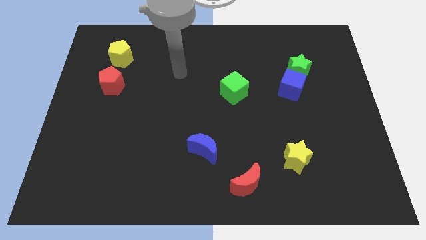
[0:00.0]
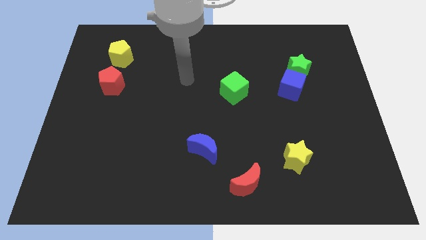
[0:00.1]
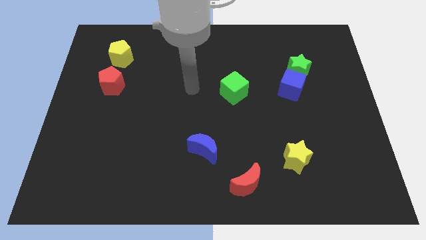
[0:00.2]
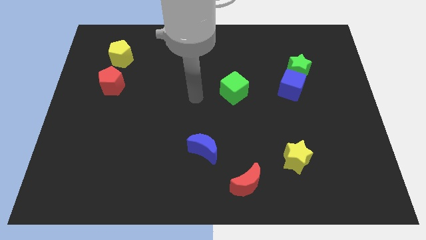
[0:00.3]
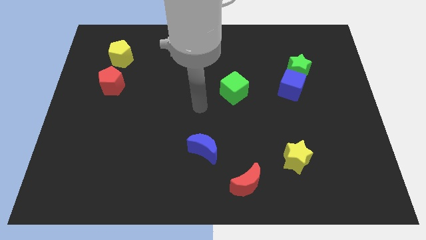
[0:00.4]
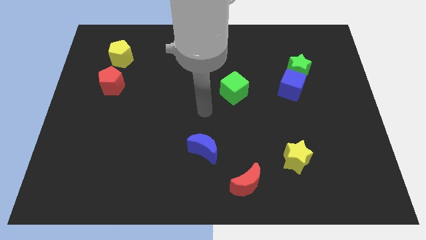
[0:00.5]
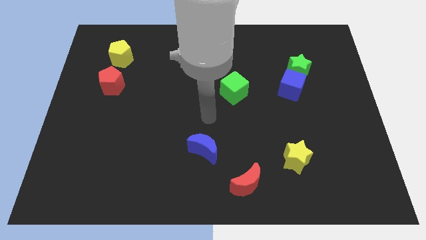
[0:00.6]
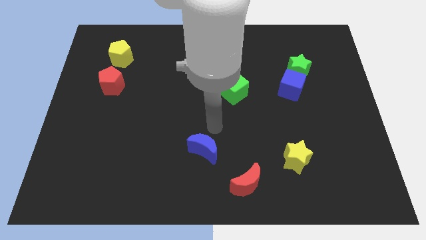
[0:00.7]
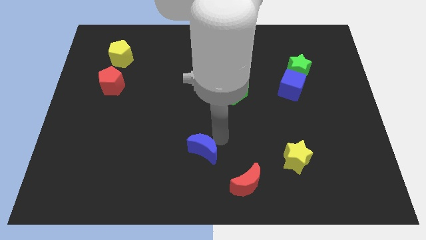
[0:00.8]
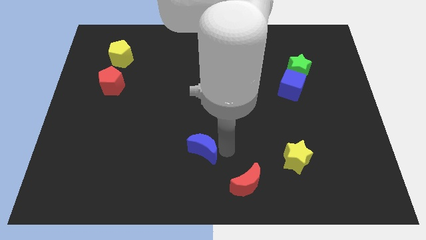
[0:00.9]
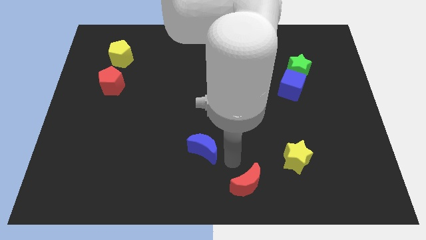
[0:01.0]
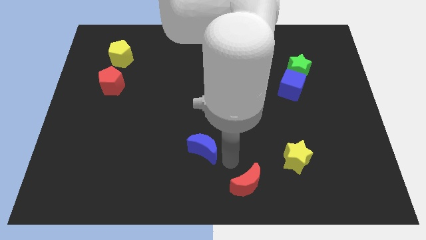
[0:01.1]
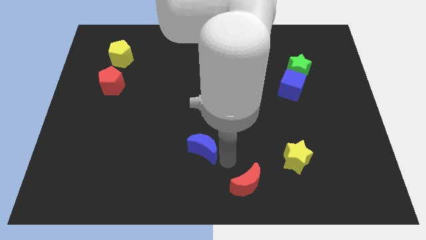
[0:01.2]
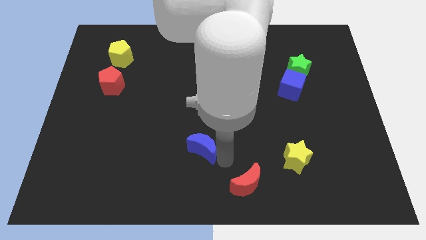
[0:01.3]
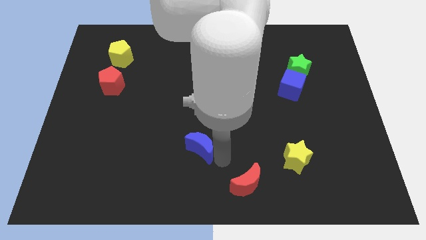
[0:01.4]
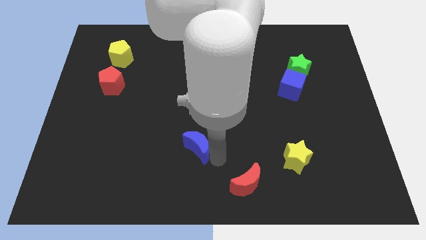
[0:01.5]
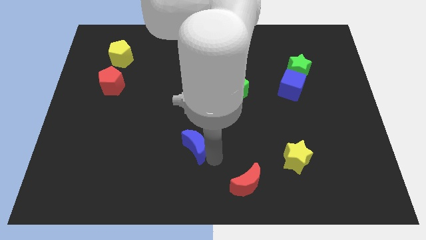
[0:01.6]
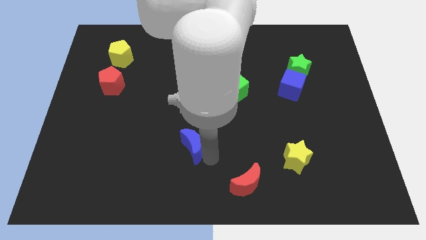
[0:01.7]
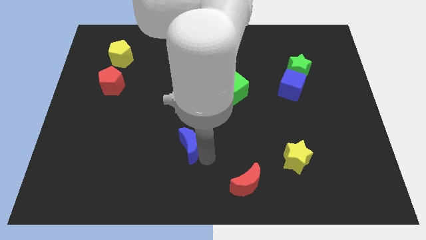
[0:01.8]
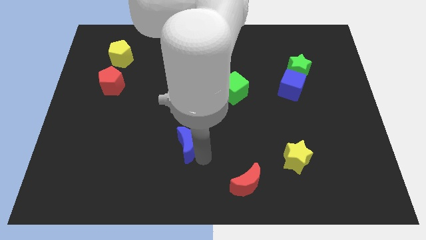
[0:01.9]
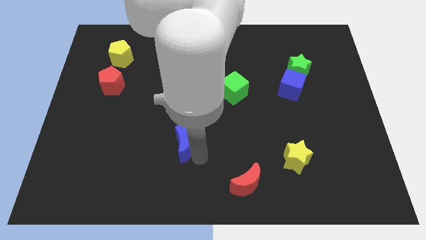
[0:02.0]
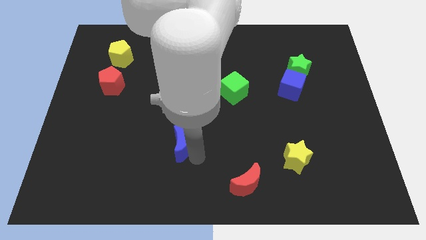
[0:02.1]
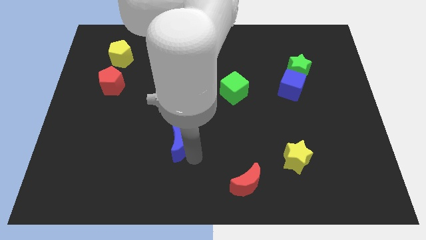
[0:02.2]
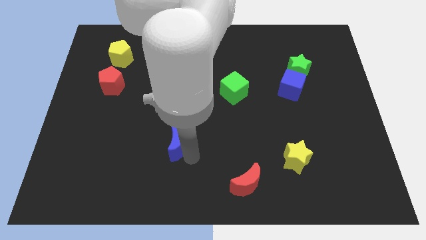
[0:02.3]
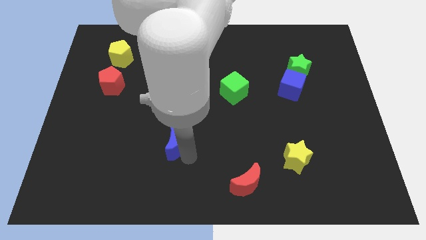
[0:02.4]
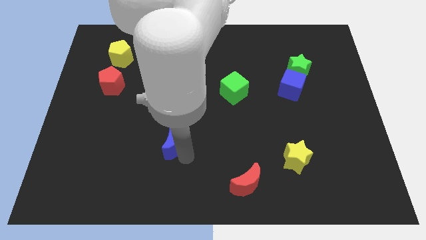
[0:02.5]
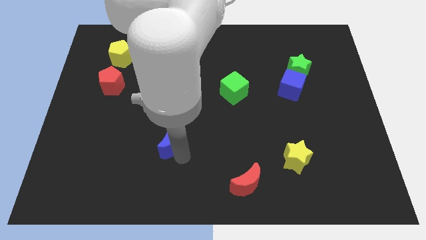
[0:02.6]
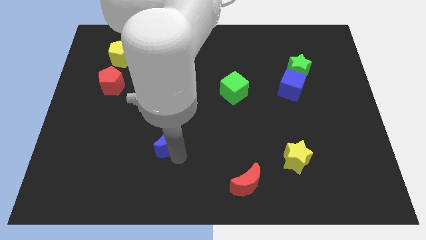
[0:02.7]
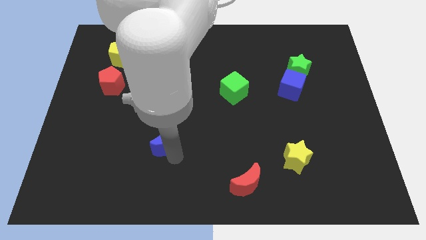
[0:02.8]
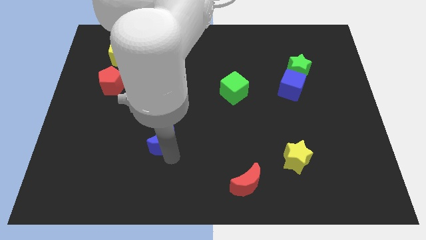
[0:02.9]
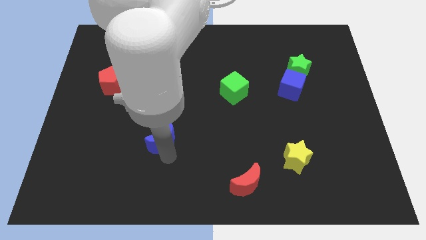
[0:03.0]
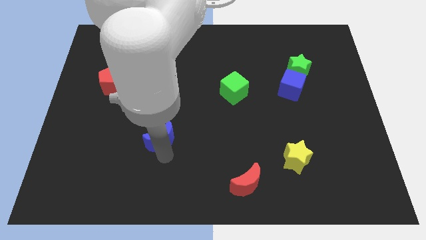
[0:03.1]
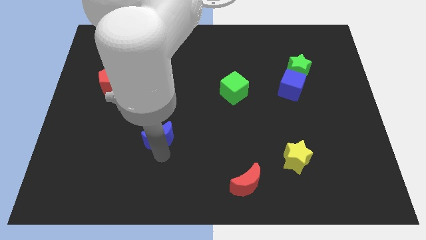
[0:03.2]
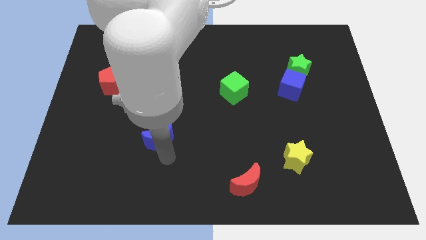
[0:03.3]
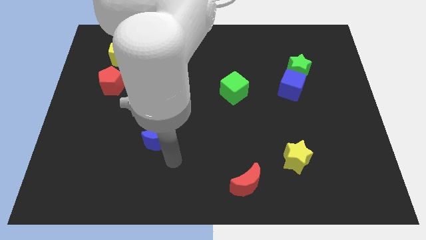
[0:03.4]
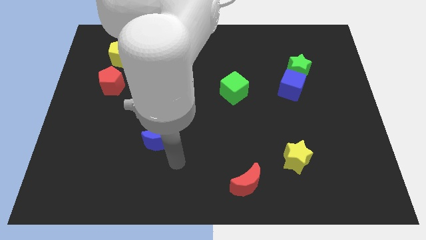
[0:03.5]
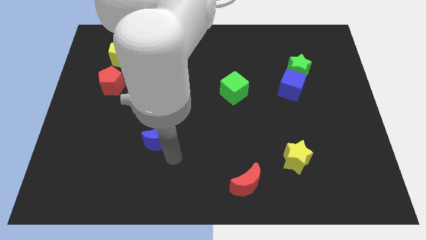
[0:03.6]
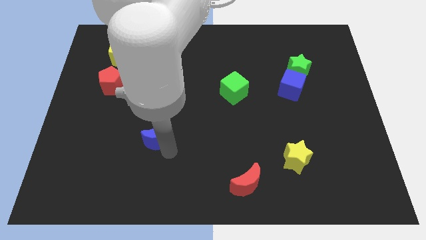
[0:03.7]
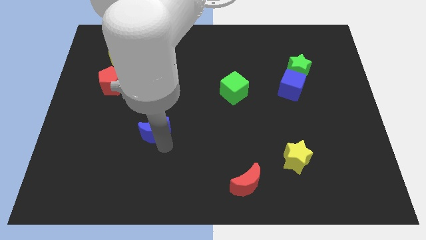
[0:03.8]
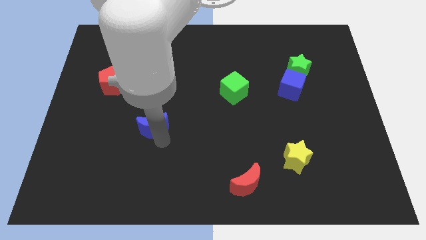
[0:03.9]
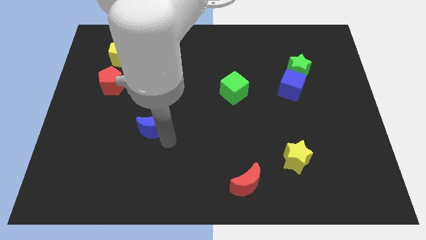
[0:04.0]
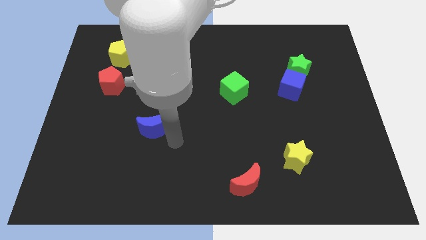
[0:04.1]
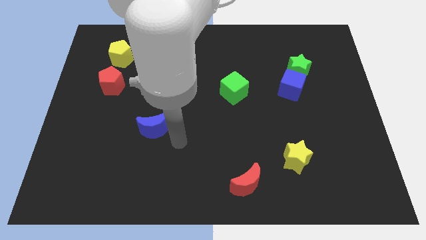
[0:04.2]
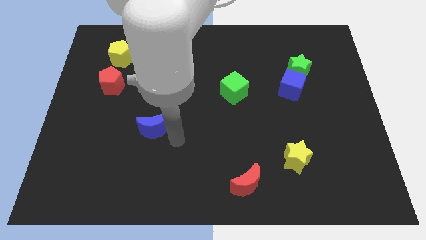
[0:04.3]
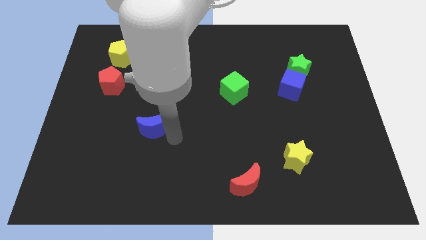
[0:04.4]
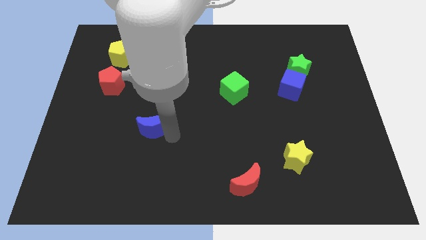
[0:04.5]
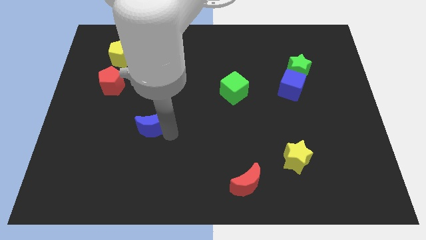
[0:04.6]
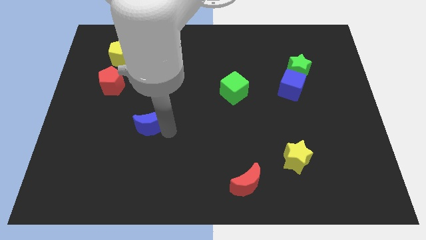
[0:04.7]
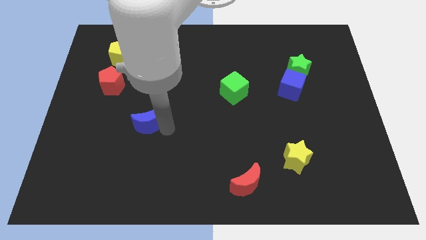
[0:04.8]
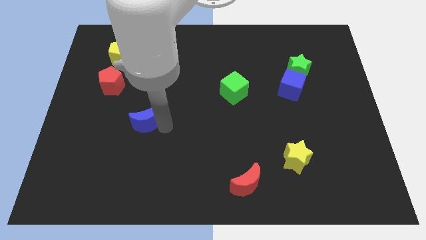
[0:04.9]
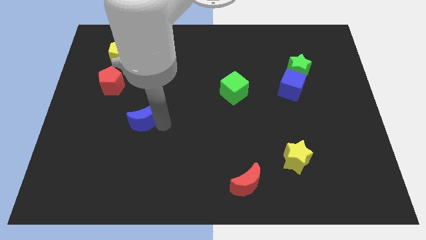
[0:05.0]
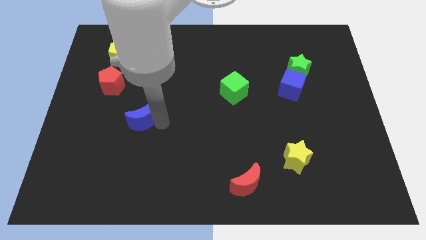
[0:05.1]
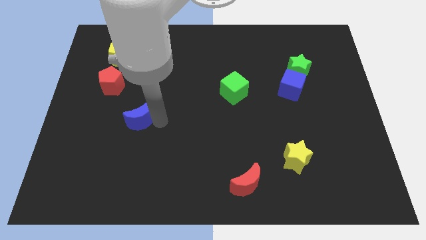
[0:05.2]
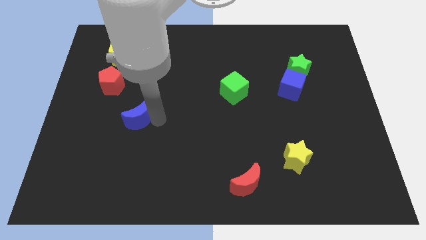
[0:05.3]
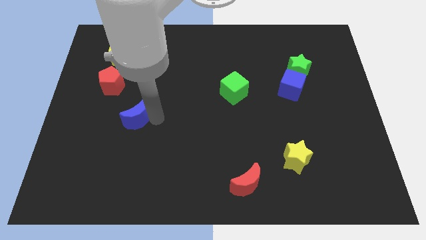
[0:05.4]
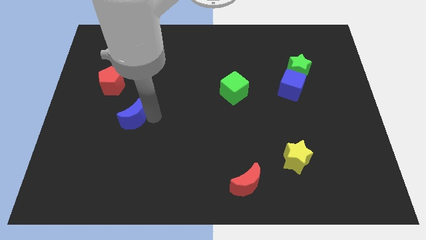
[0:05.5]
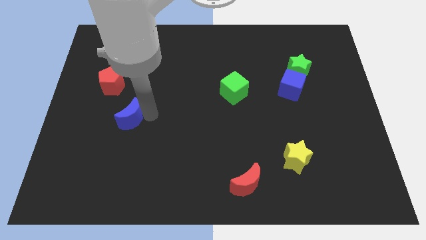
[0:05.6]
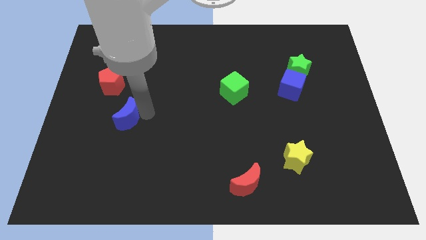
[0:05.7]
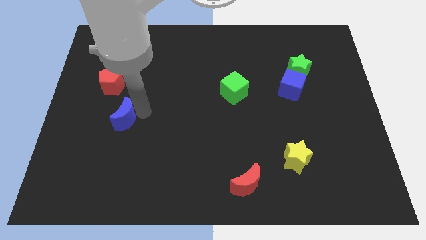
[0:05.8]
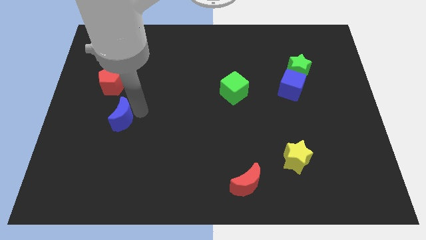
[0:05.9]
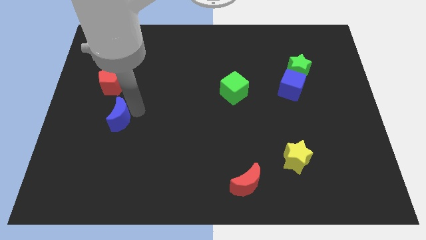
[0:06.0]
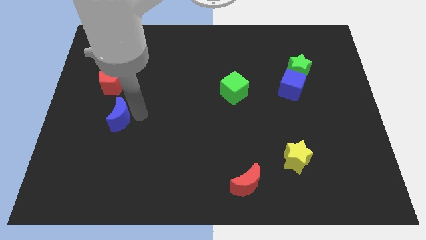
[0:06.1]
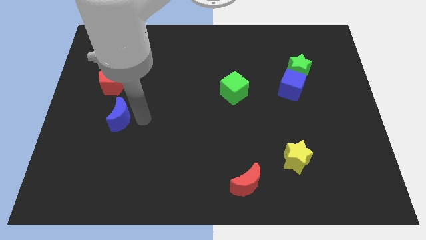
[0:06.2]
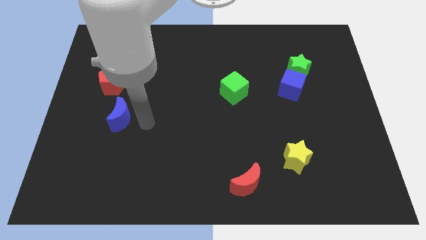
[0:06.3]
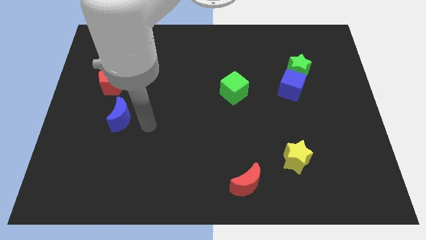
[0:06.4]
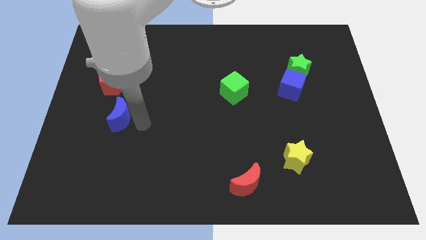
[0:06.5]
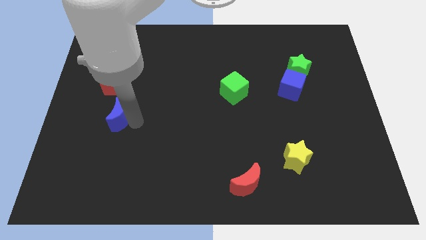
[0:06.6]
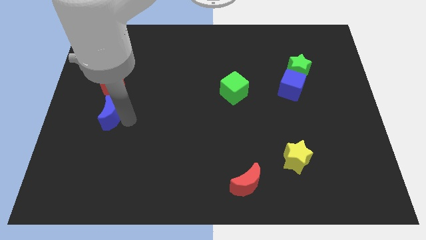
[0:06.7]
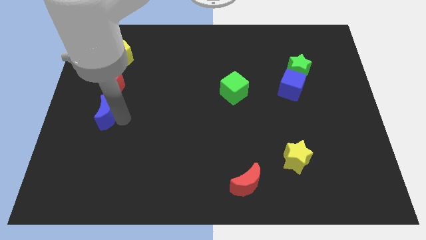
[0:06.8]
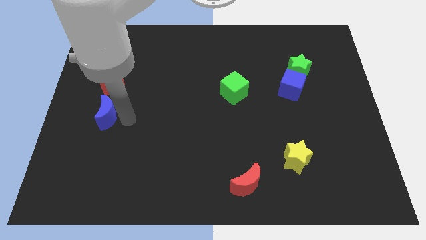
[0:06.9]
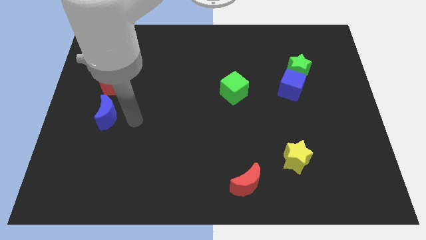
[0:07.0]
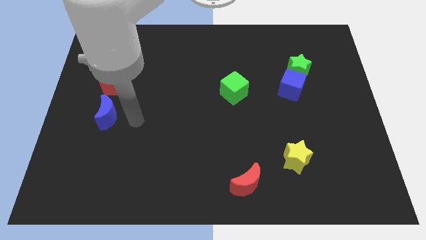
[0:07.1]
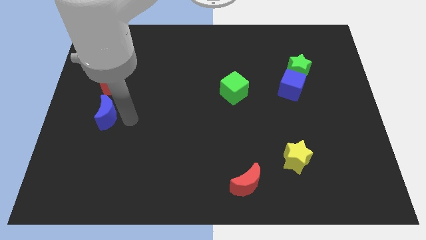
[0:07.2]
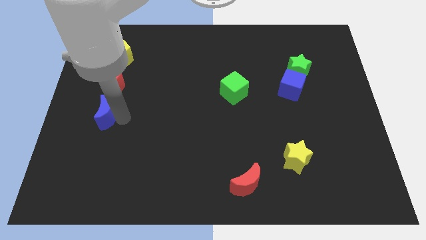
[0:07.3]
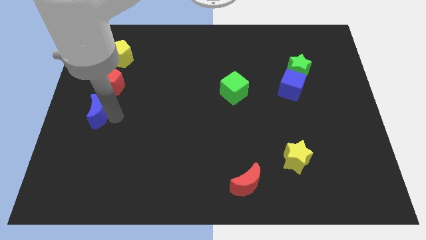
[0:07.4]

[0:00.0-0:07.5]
push the blue moon to the left side of the board

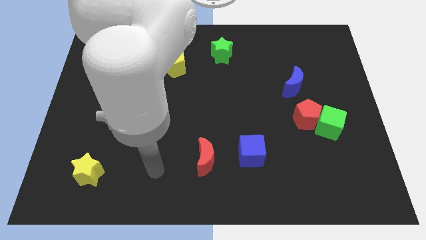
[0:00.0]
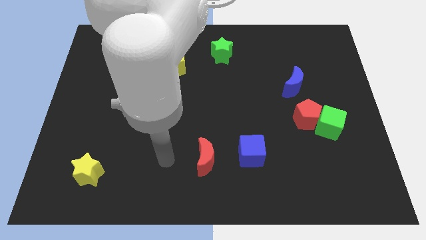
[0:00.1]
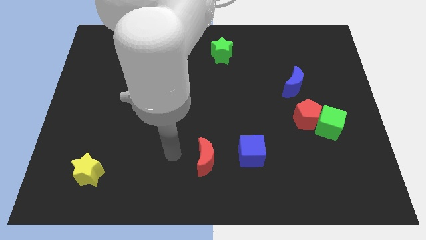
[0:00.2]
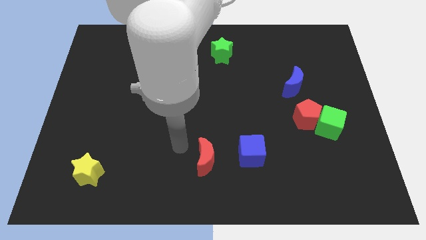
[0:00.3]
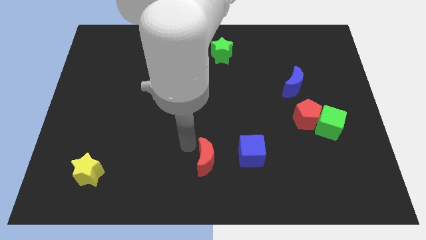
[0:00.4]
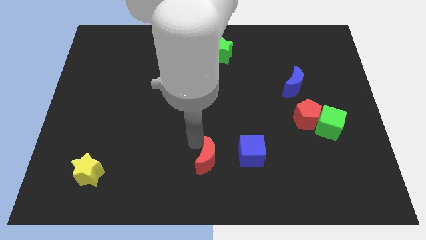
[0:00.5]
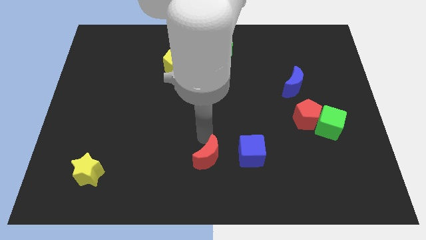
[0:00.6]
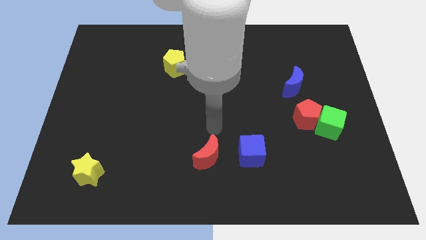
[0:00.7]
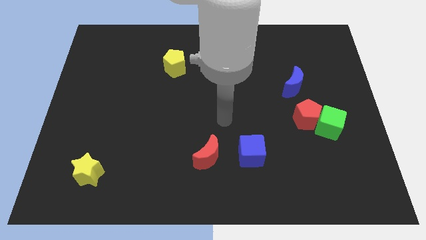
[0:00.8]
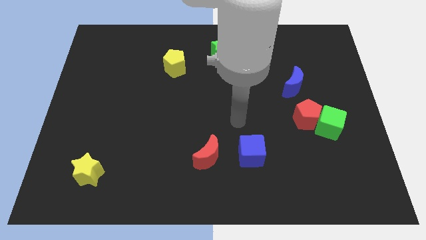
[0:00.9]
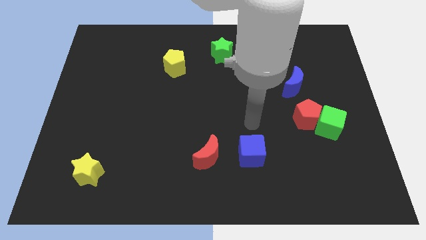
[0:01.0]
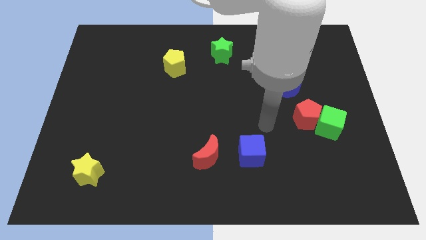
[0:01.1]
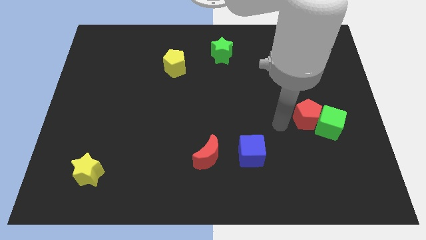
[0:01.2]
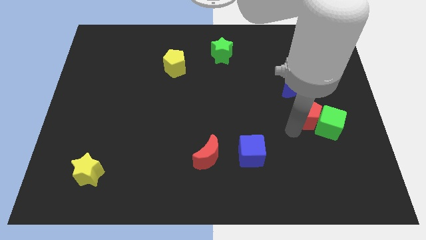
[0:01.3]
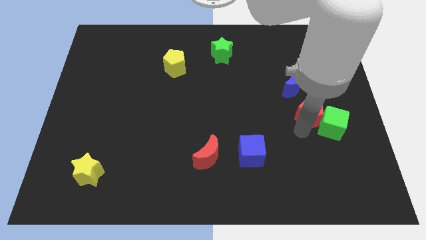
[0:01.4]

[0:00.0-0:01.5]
put the green cube to the right side
